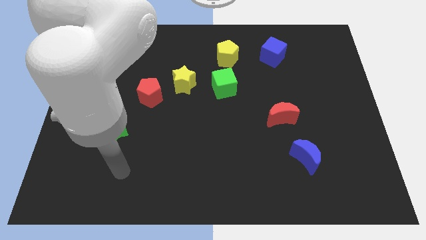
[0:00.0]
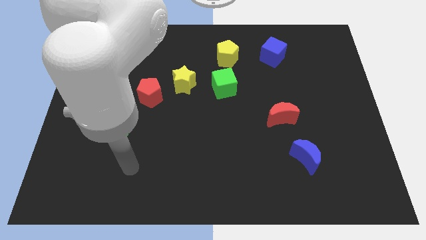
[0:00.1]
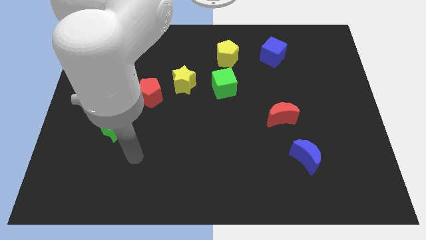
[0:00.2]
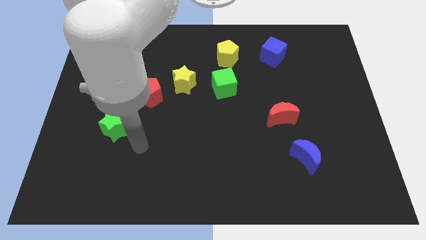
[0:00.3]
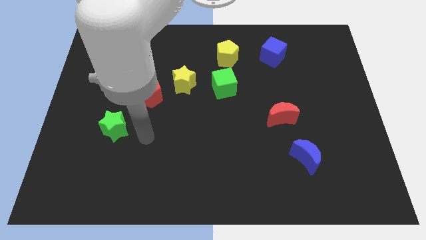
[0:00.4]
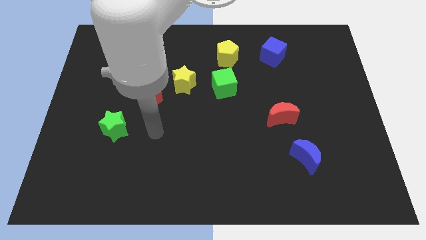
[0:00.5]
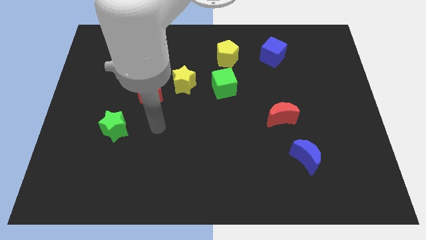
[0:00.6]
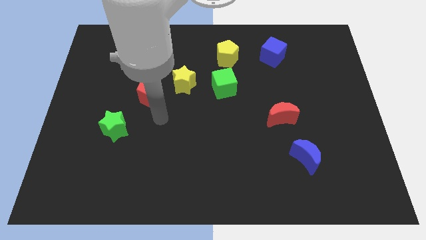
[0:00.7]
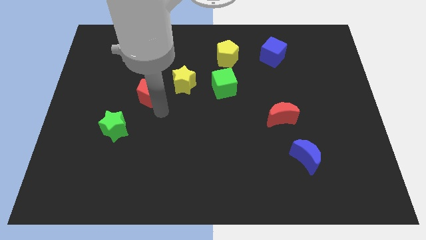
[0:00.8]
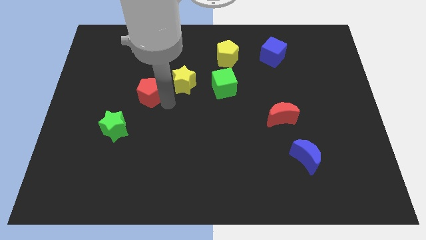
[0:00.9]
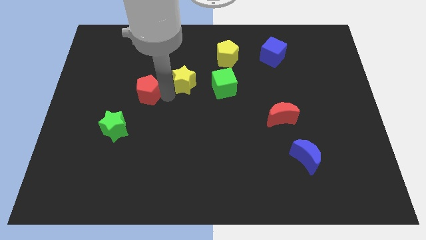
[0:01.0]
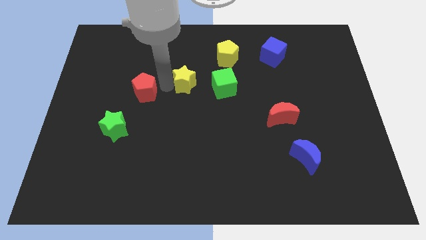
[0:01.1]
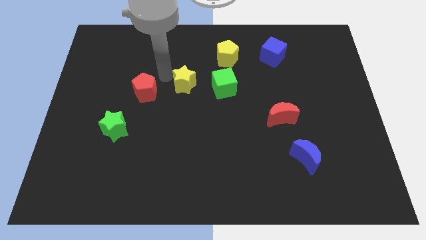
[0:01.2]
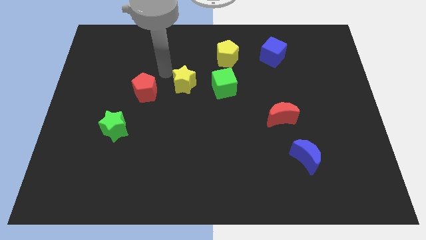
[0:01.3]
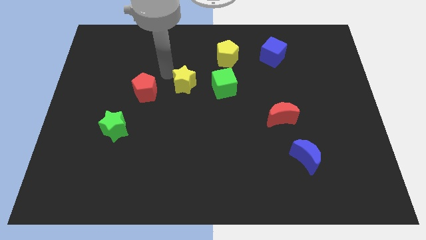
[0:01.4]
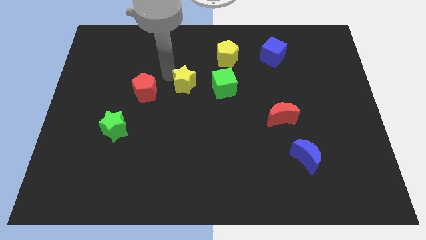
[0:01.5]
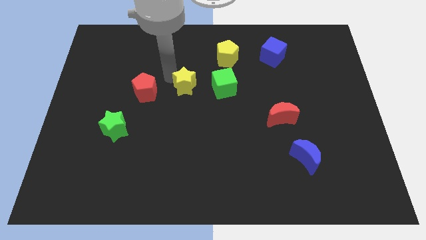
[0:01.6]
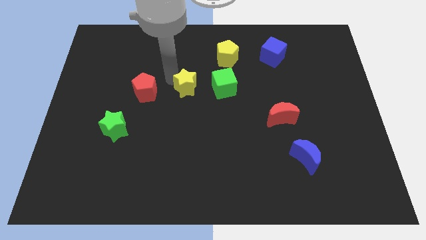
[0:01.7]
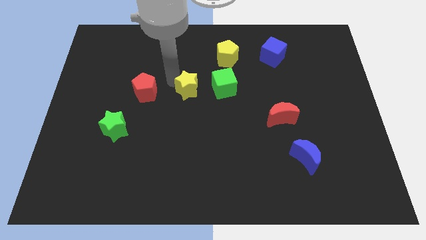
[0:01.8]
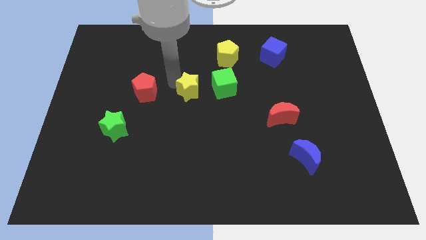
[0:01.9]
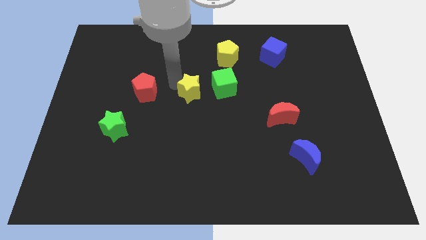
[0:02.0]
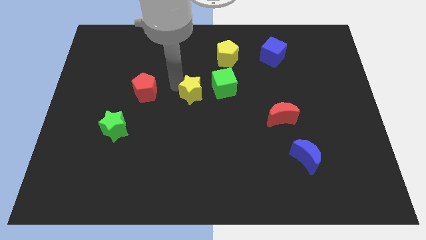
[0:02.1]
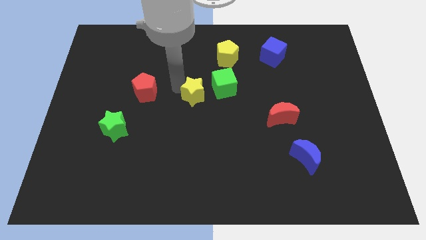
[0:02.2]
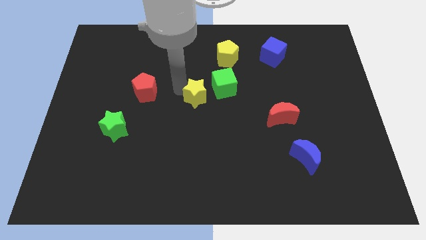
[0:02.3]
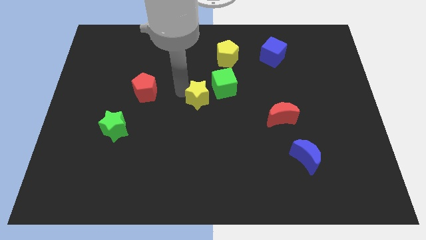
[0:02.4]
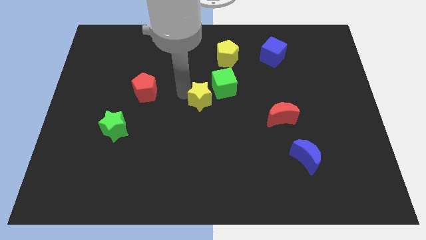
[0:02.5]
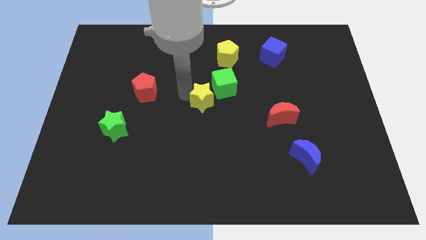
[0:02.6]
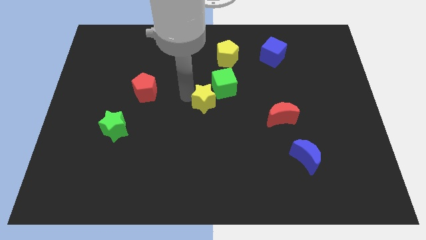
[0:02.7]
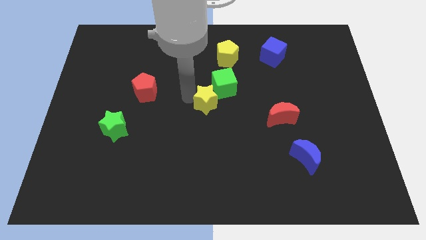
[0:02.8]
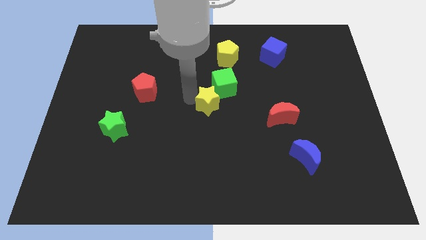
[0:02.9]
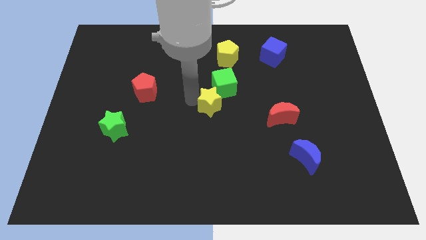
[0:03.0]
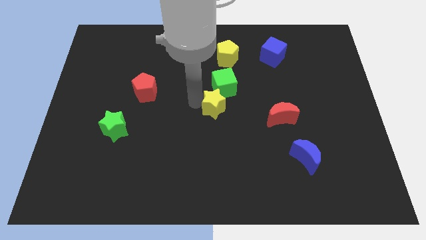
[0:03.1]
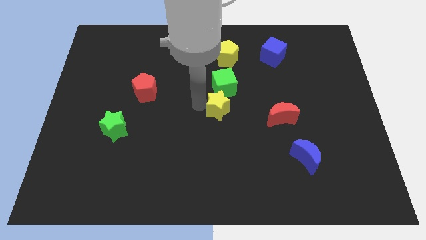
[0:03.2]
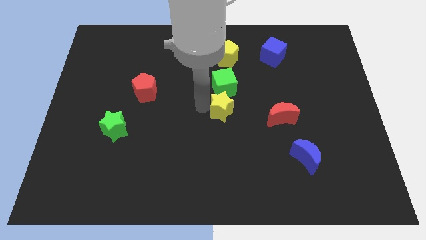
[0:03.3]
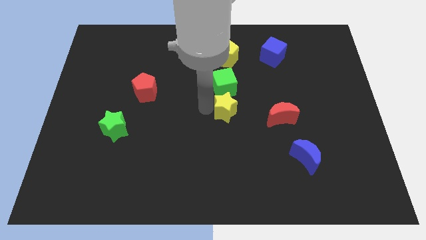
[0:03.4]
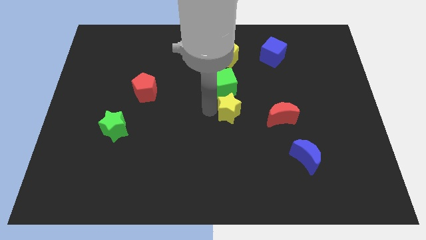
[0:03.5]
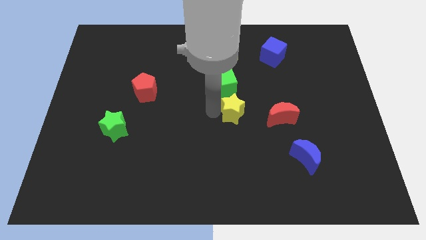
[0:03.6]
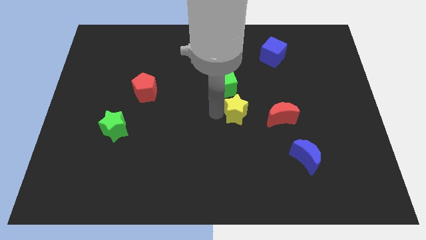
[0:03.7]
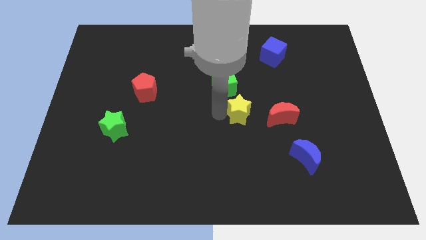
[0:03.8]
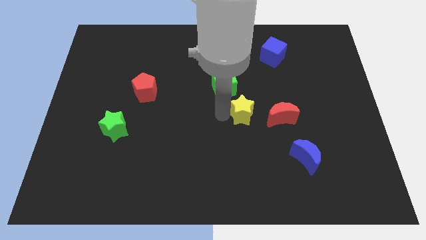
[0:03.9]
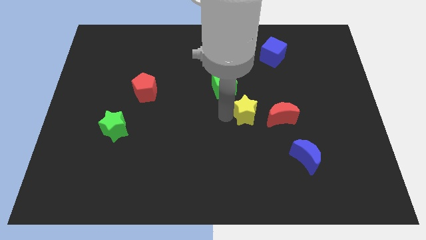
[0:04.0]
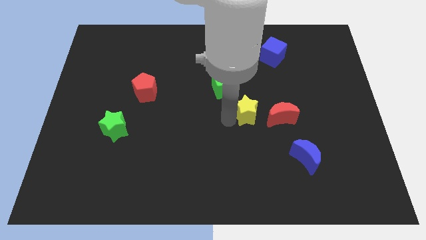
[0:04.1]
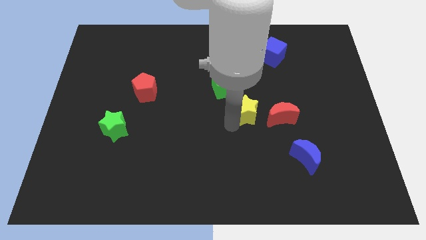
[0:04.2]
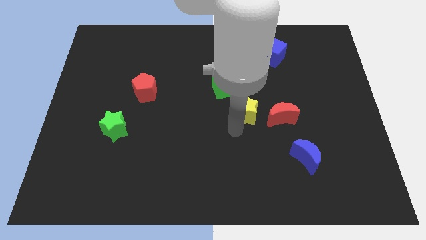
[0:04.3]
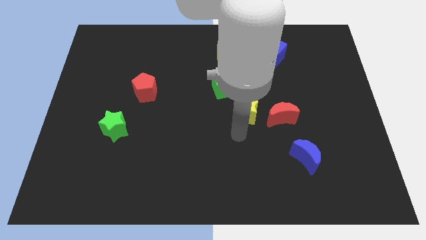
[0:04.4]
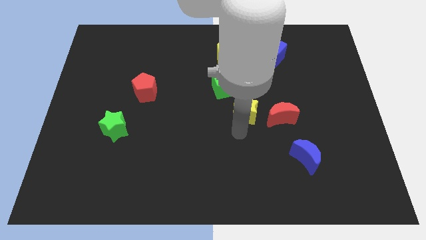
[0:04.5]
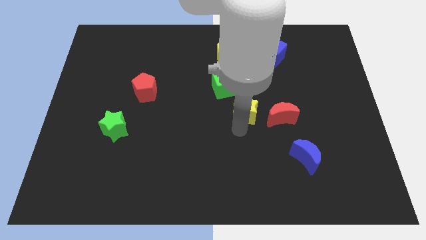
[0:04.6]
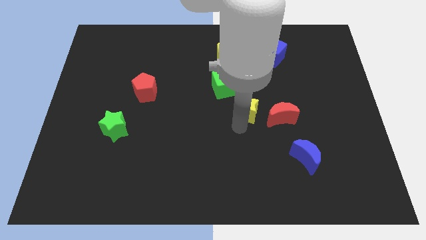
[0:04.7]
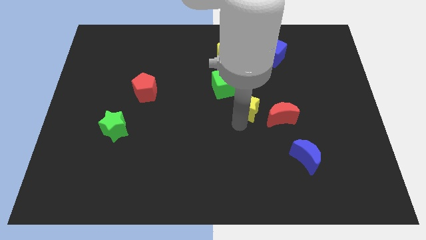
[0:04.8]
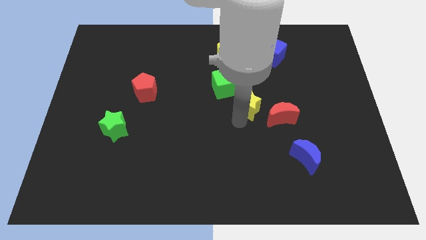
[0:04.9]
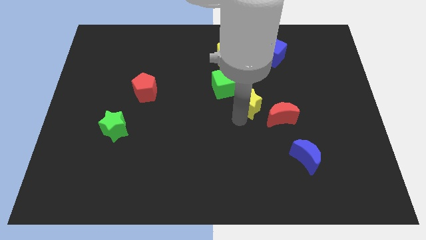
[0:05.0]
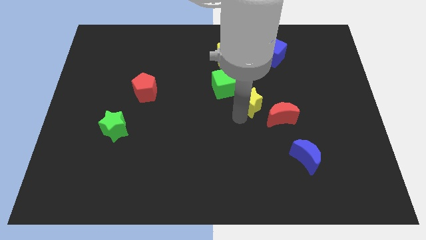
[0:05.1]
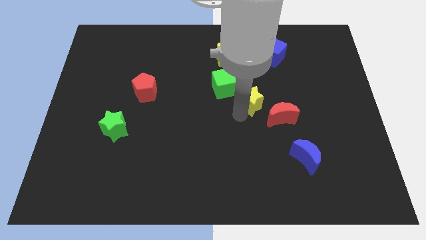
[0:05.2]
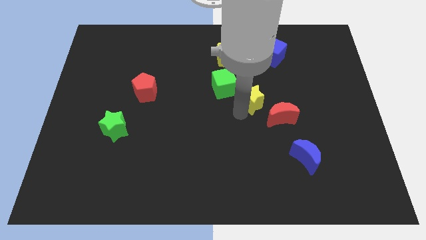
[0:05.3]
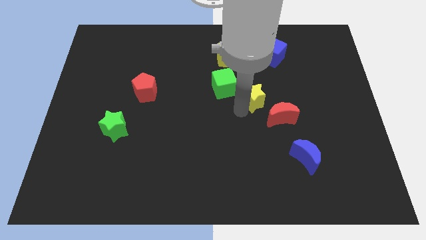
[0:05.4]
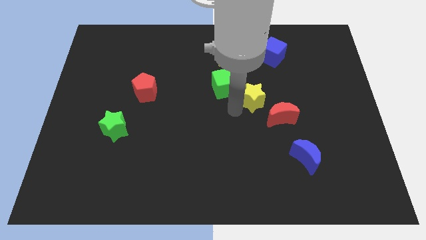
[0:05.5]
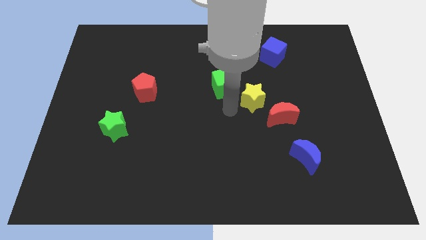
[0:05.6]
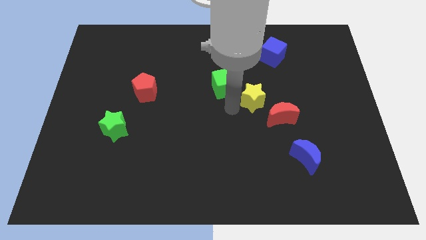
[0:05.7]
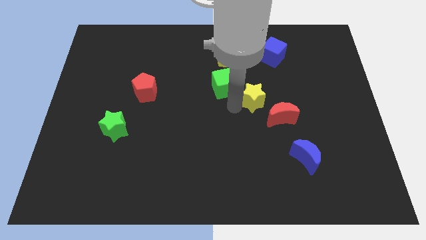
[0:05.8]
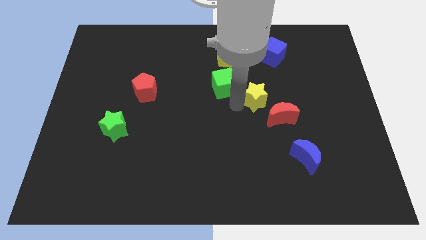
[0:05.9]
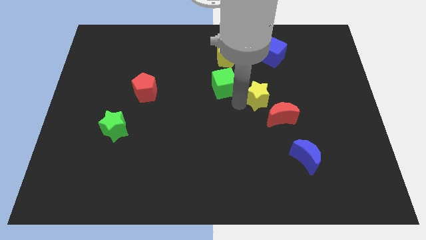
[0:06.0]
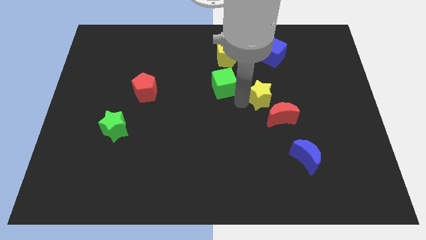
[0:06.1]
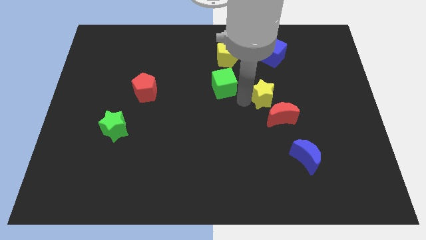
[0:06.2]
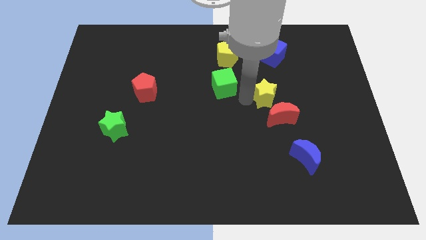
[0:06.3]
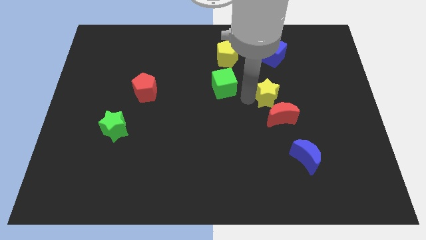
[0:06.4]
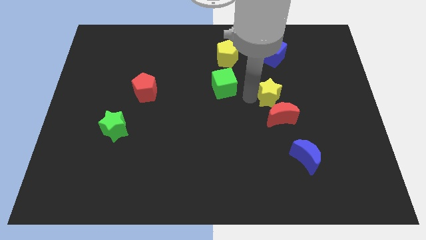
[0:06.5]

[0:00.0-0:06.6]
move the yellow star to the right

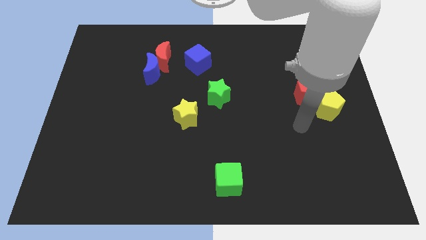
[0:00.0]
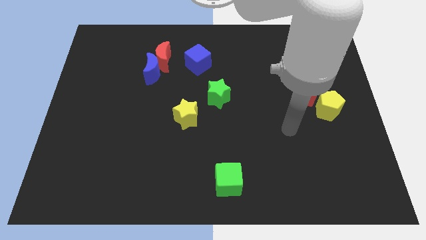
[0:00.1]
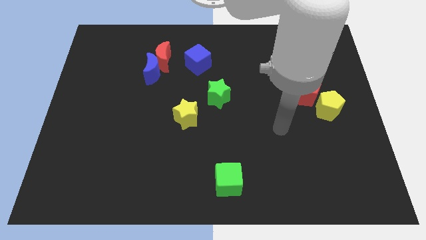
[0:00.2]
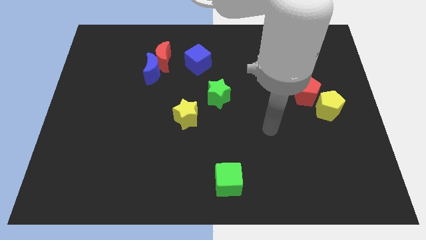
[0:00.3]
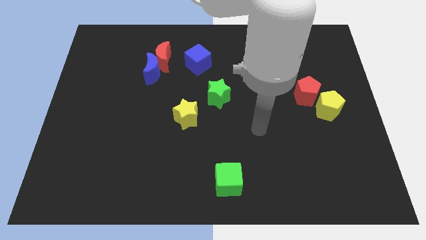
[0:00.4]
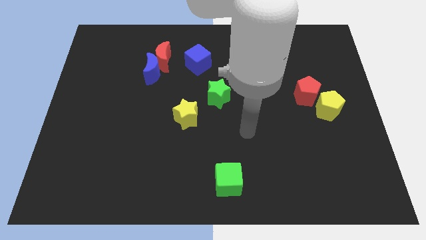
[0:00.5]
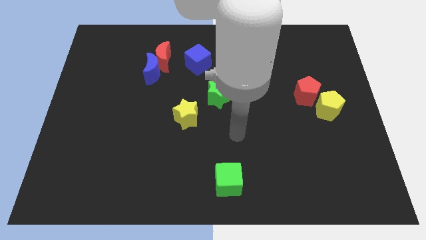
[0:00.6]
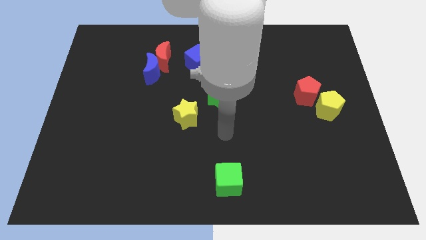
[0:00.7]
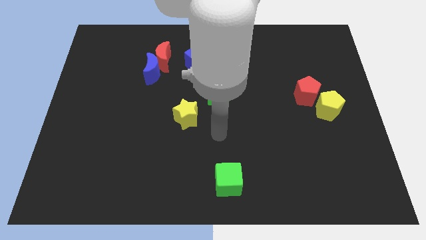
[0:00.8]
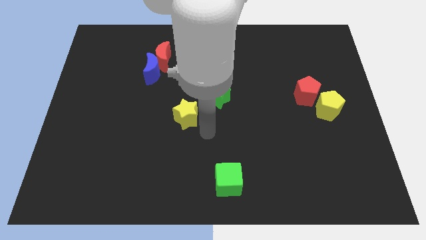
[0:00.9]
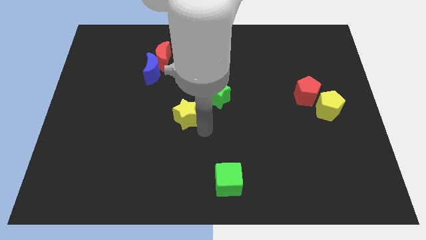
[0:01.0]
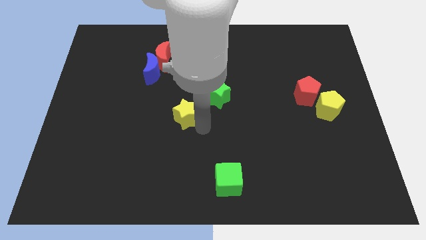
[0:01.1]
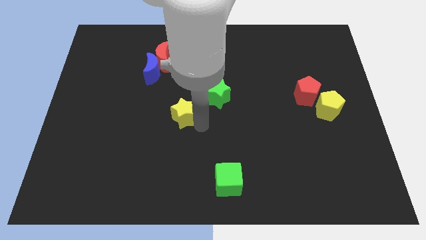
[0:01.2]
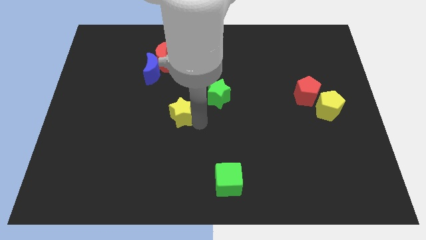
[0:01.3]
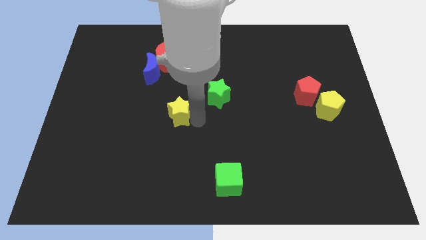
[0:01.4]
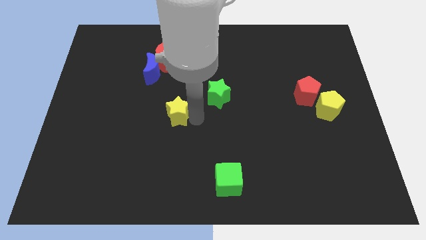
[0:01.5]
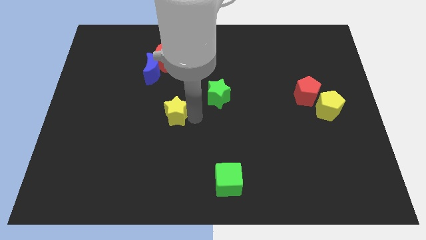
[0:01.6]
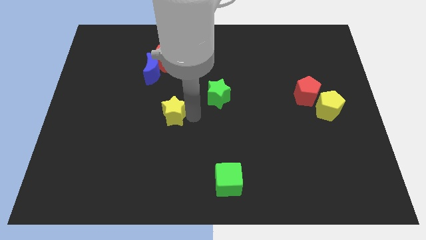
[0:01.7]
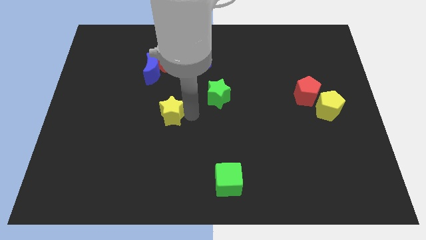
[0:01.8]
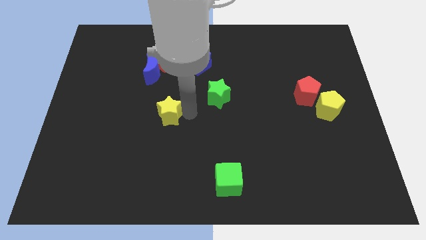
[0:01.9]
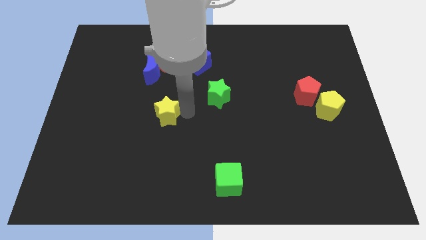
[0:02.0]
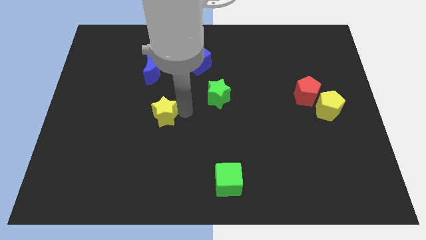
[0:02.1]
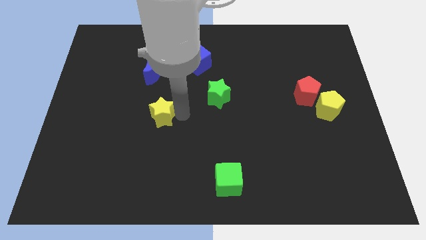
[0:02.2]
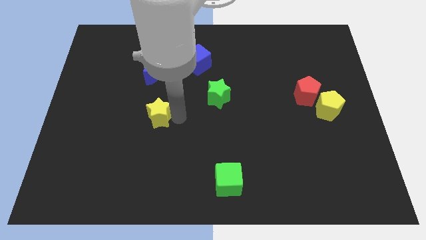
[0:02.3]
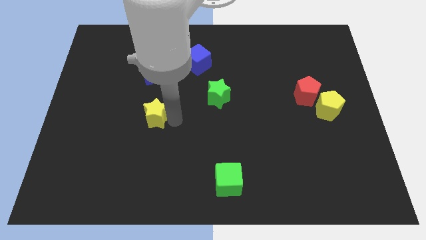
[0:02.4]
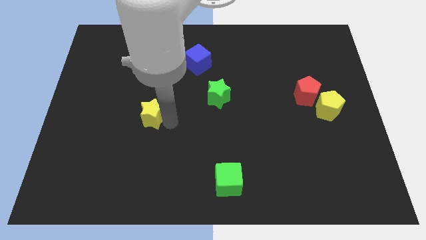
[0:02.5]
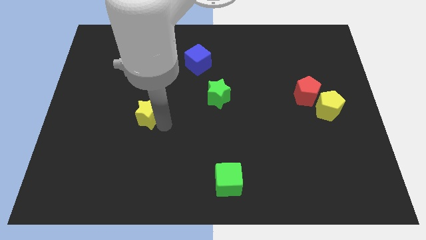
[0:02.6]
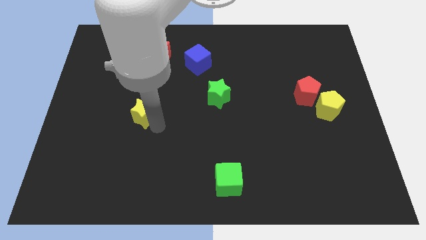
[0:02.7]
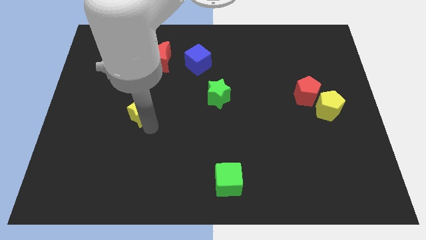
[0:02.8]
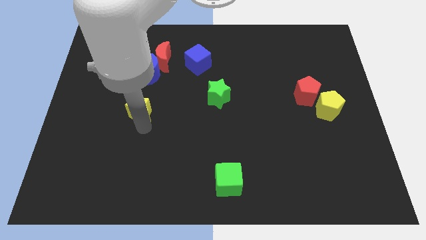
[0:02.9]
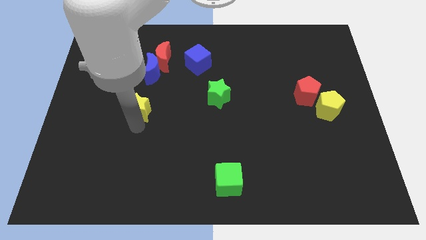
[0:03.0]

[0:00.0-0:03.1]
slightly push the yellow star upwards and then left
